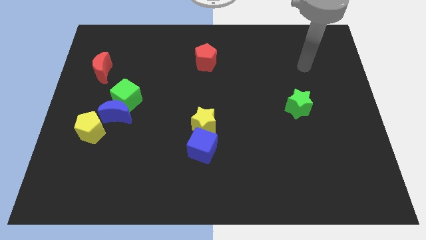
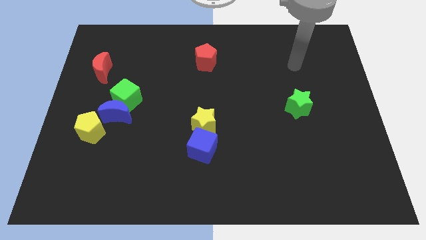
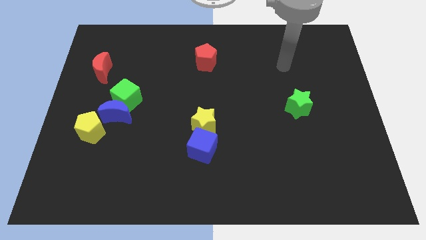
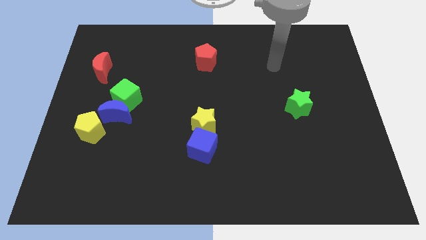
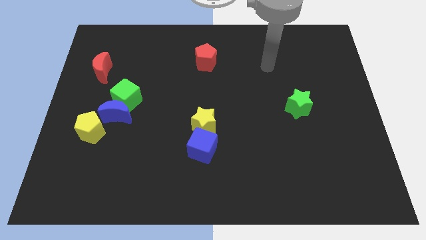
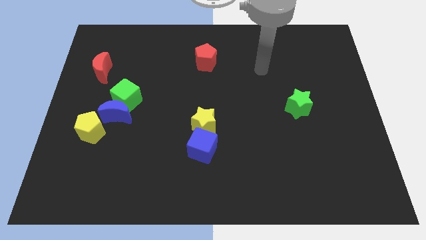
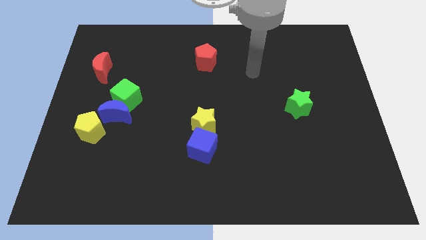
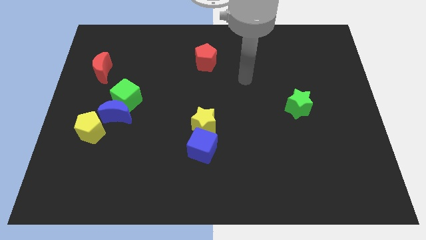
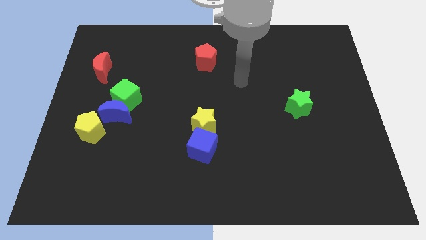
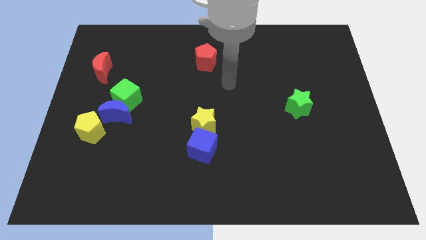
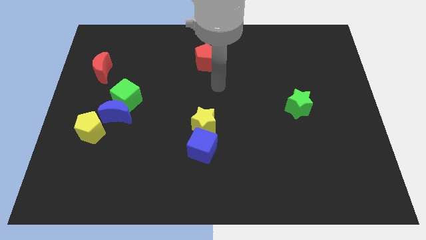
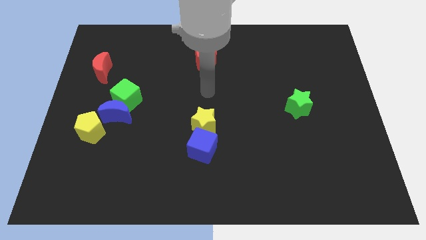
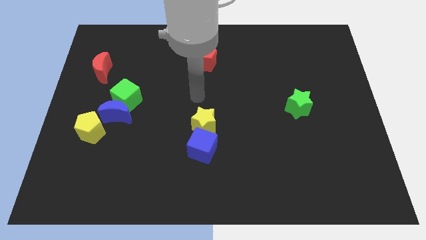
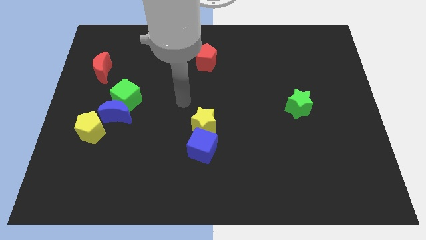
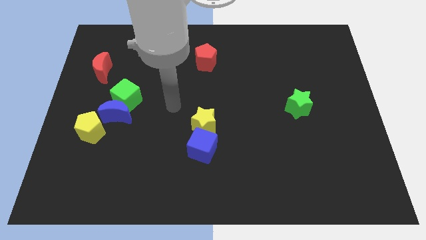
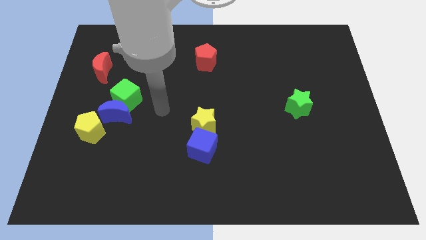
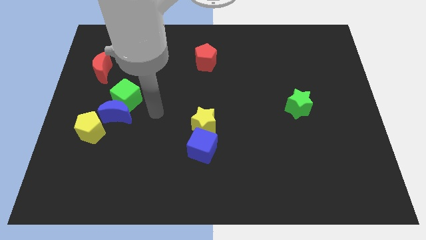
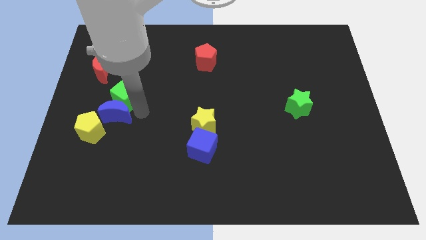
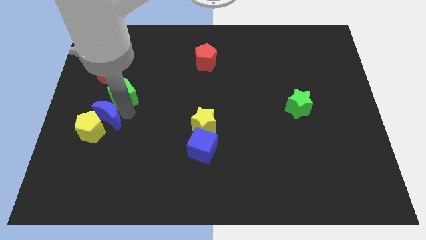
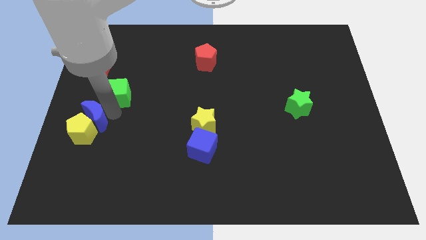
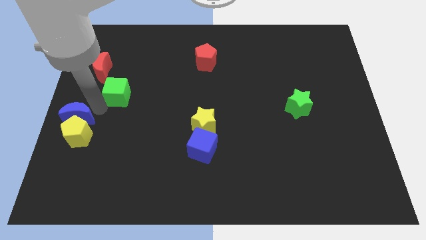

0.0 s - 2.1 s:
move the green cube away from the blue moon

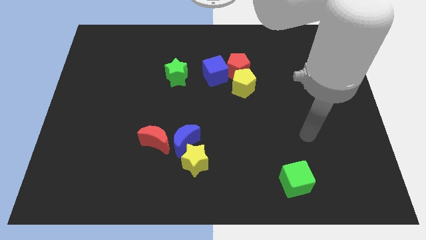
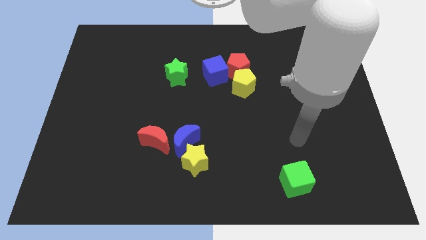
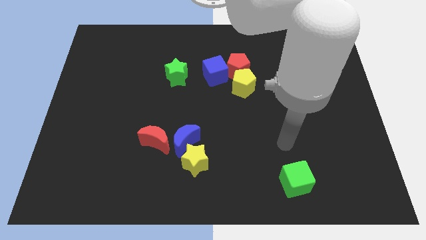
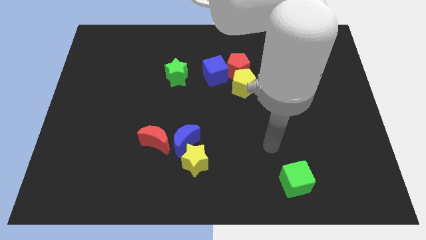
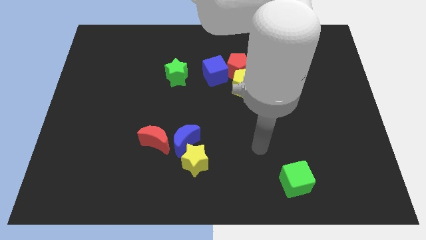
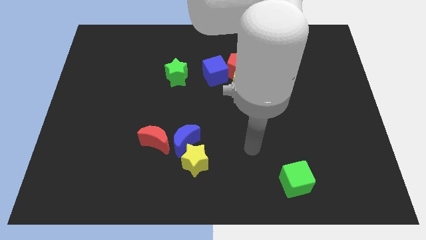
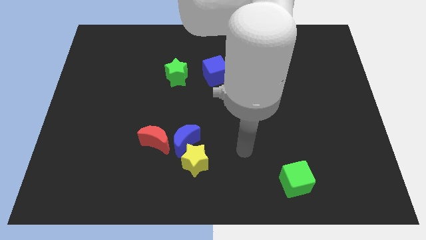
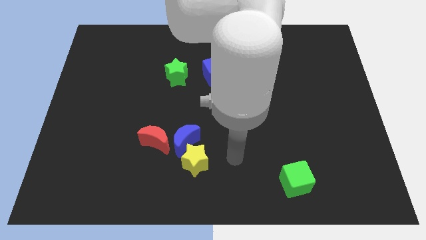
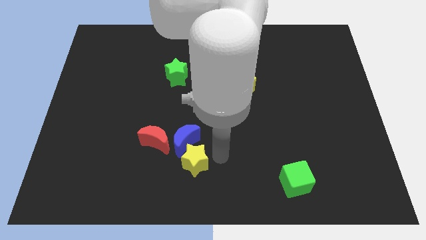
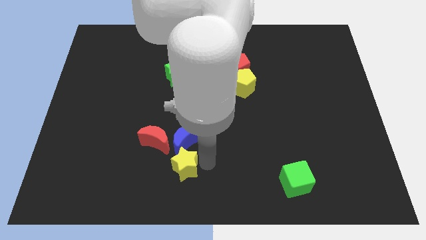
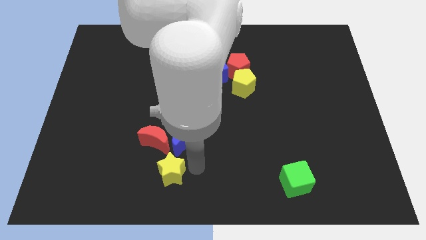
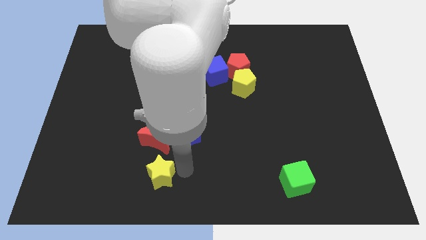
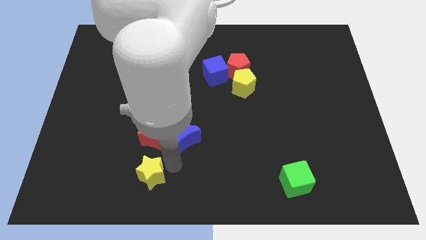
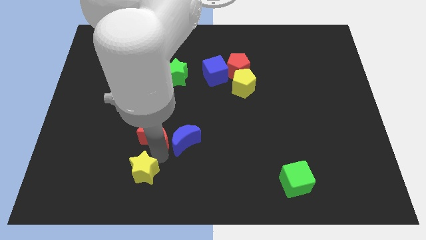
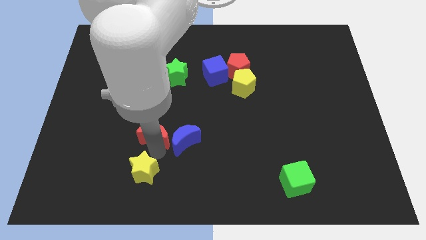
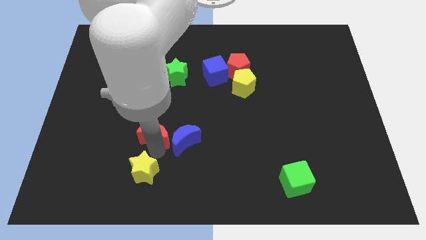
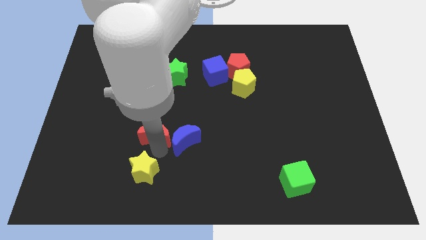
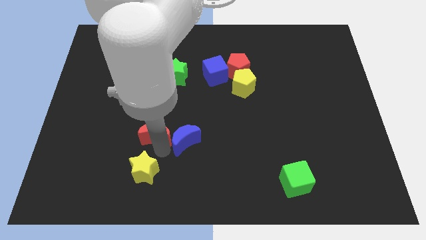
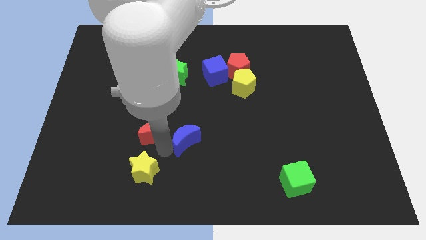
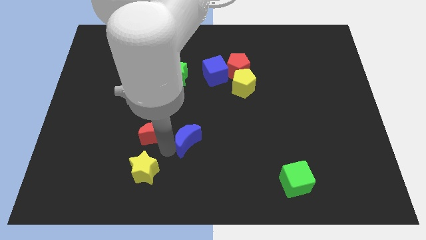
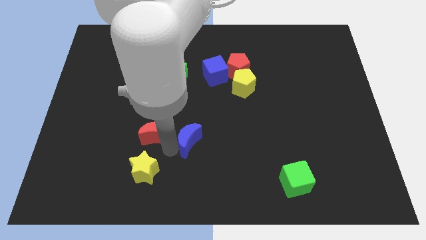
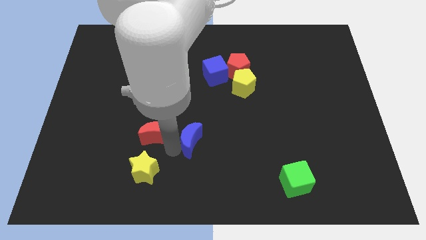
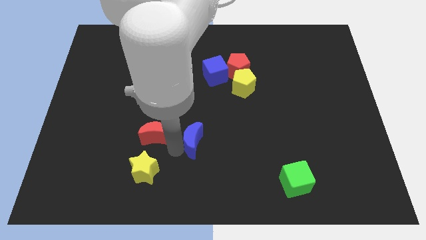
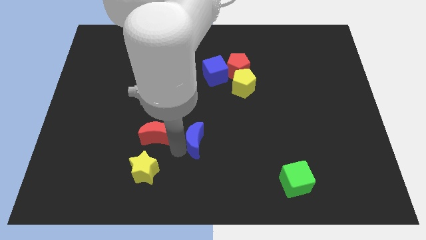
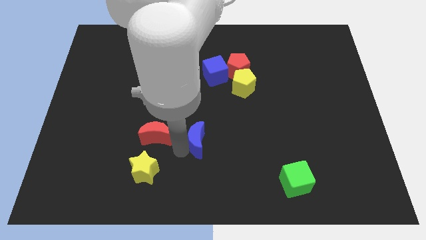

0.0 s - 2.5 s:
separate the blue moon from the yellow star and red moon

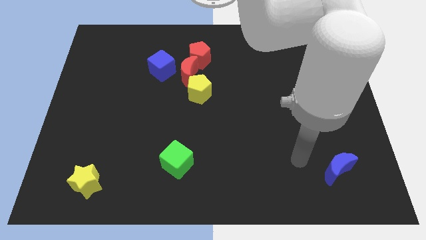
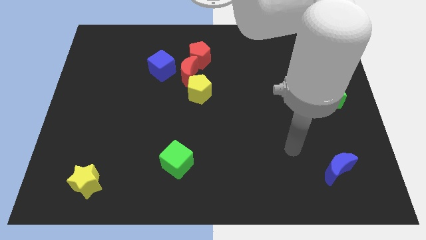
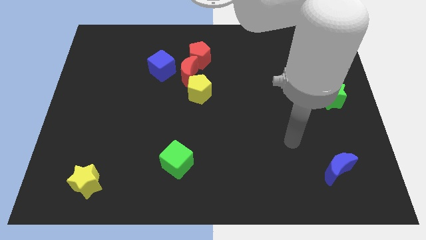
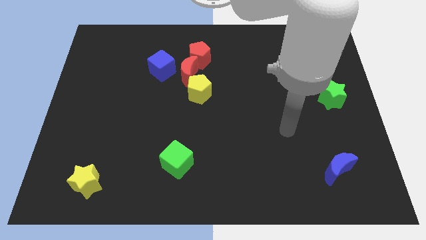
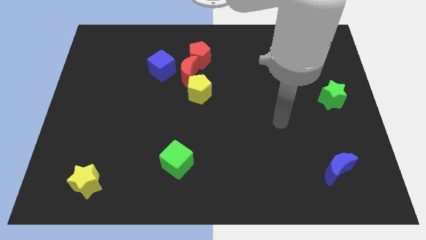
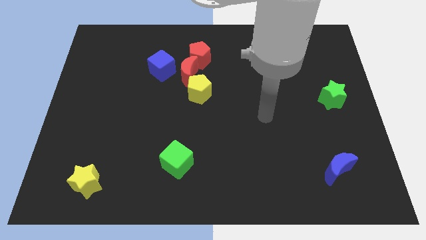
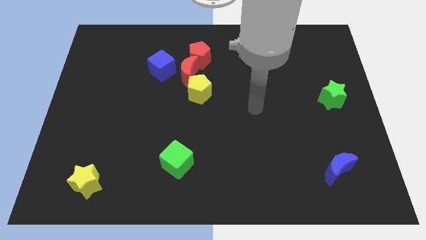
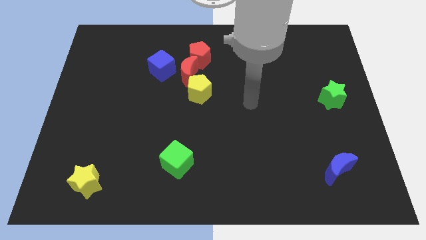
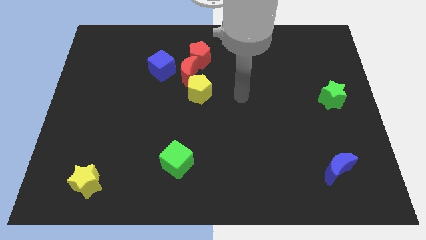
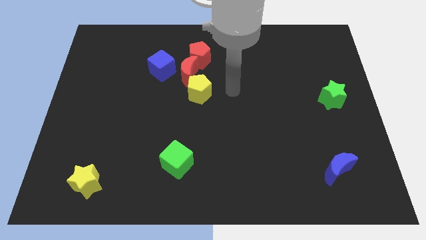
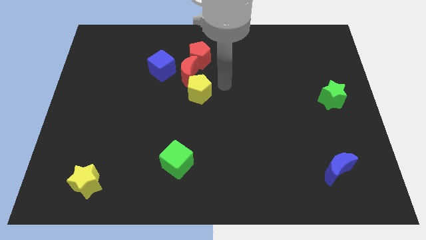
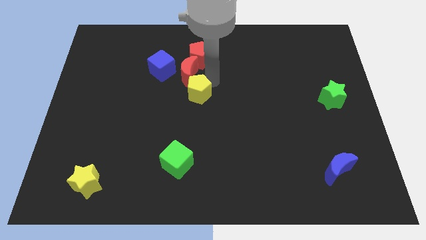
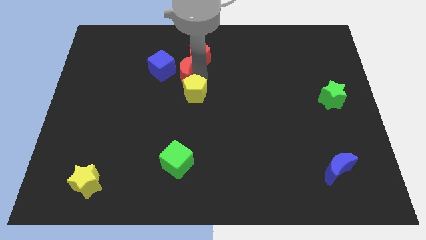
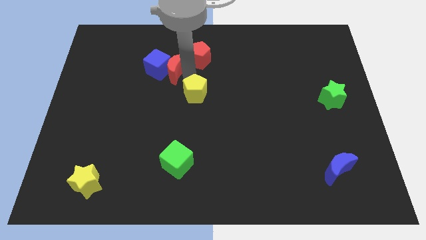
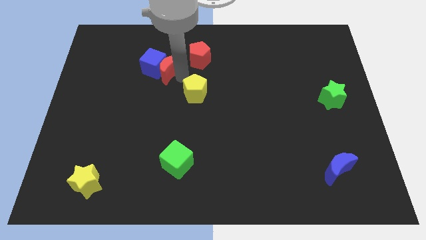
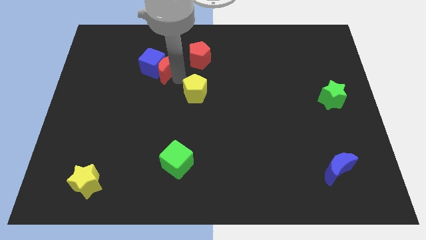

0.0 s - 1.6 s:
pull the yellow pentagon apart from the red moon

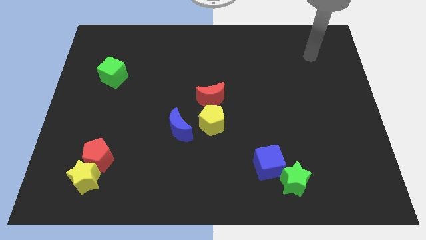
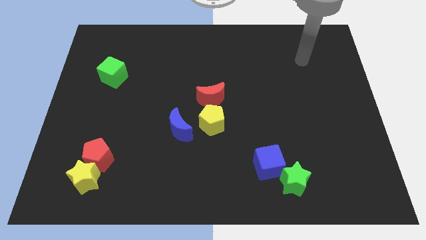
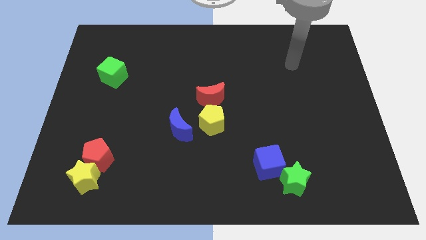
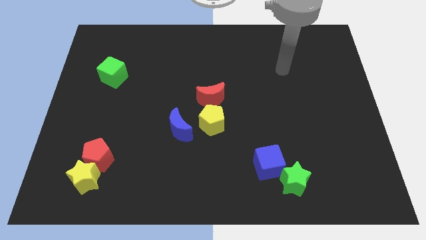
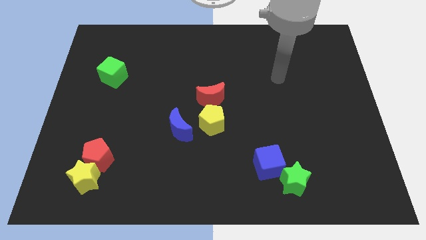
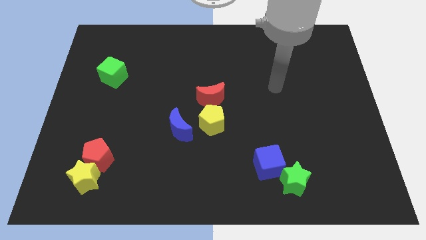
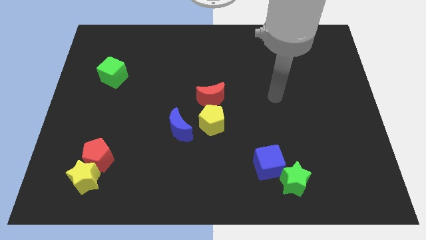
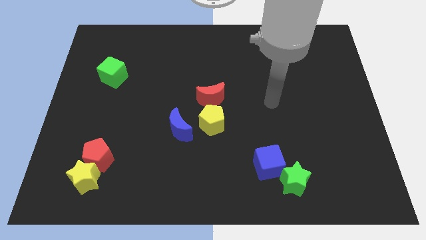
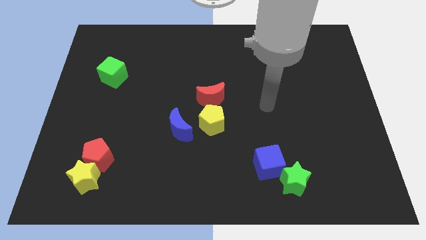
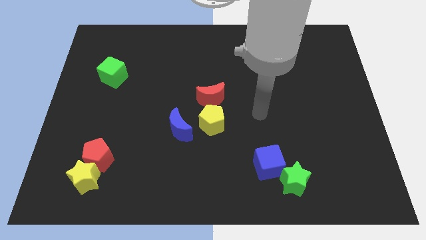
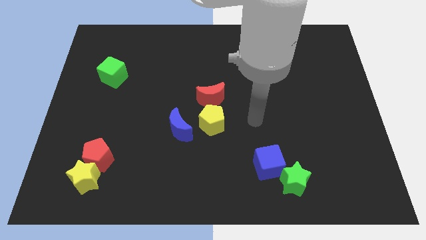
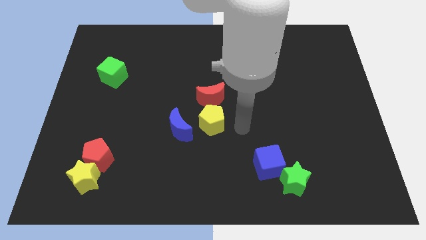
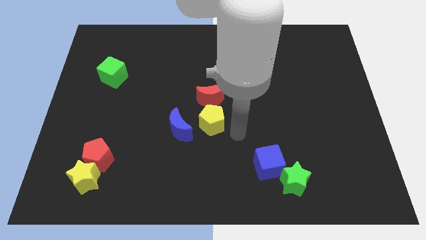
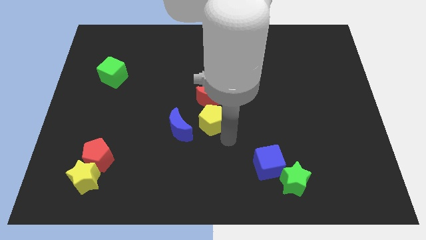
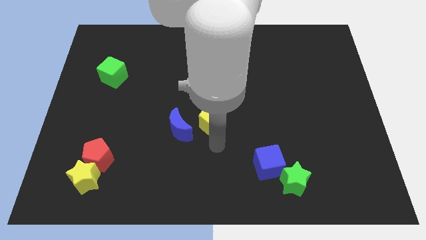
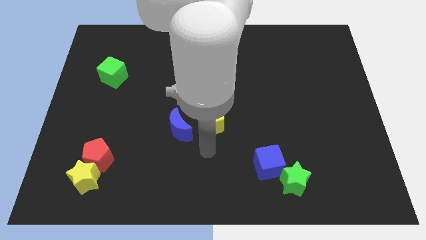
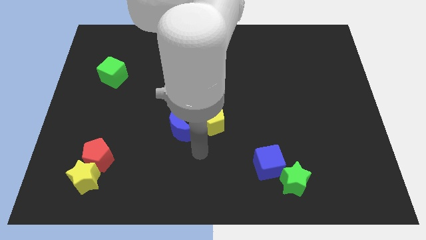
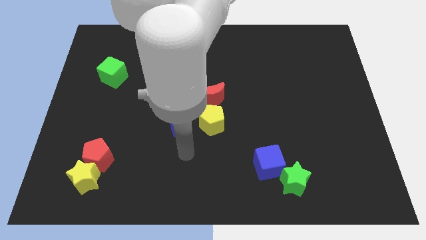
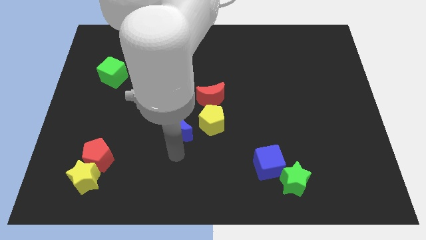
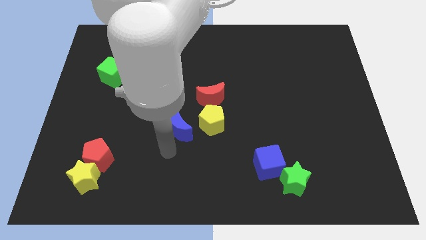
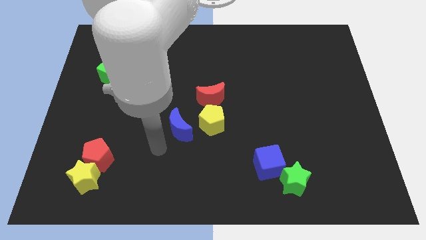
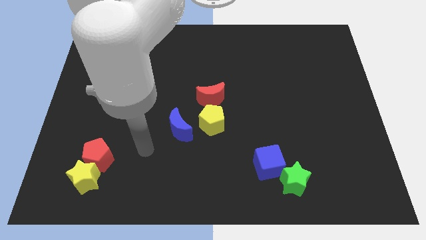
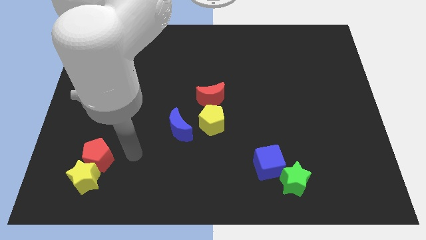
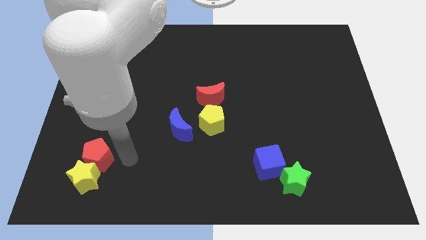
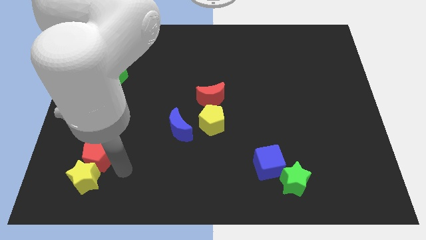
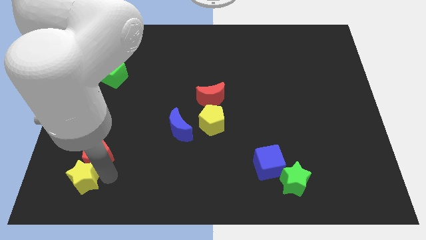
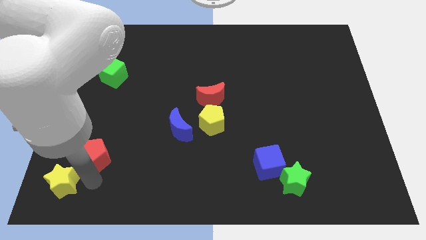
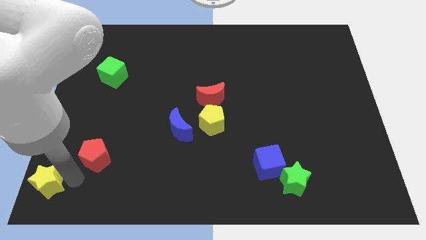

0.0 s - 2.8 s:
pull the red pentagon apart from the yellow star

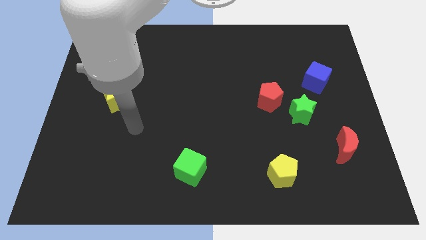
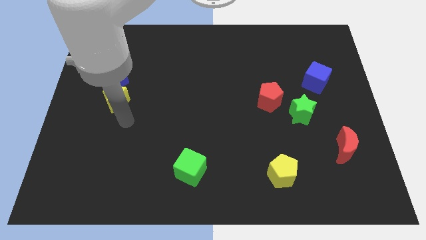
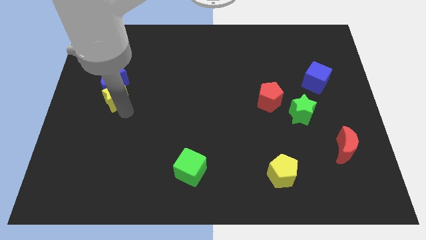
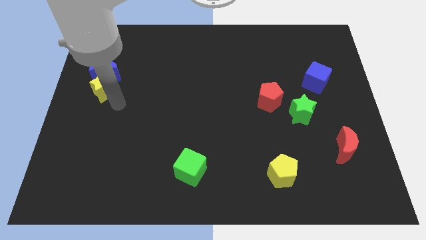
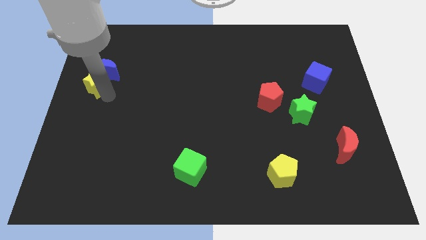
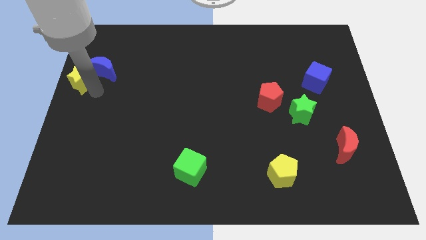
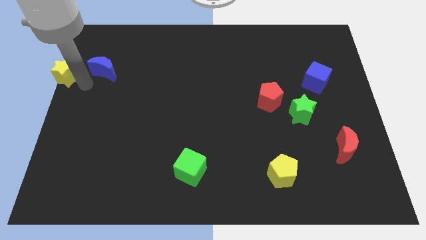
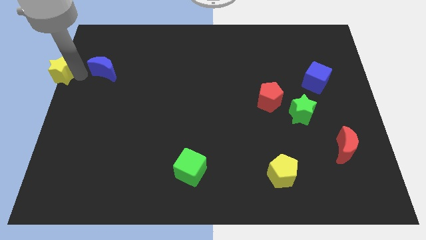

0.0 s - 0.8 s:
pull the blue moon apart from the yellow star
